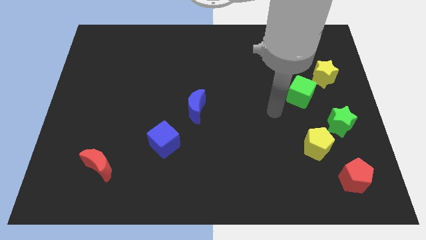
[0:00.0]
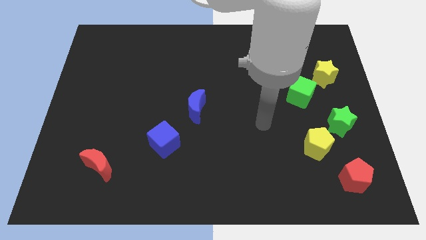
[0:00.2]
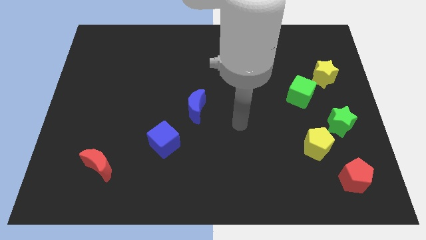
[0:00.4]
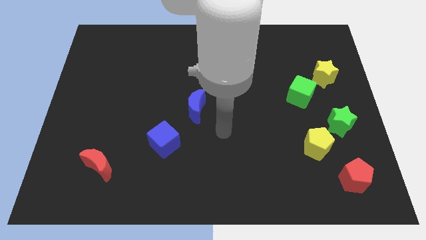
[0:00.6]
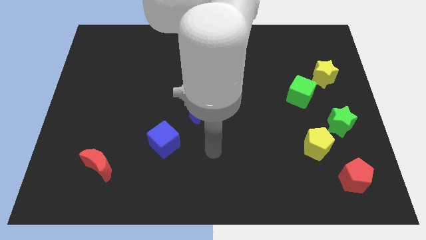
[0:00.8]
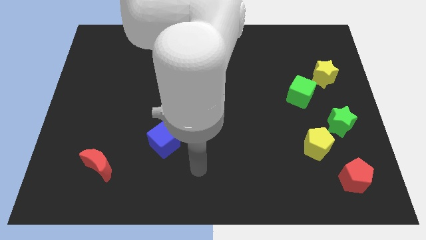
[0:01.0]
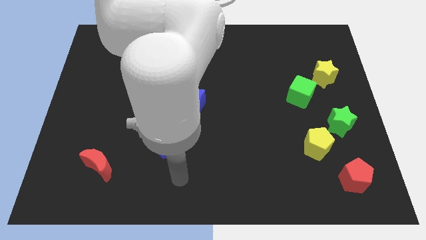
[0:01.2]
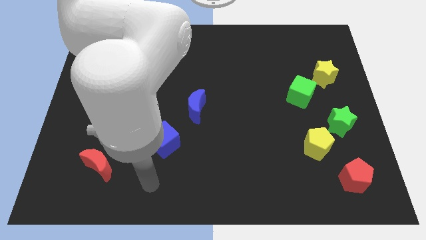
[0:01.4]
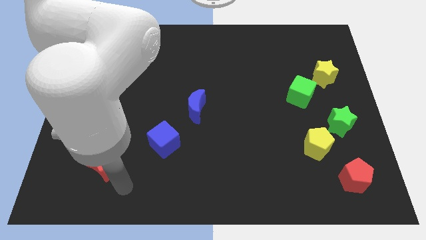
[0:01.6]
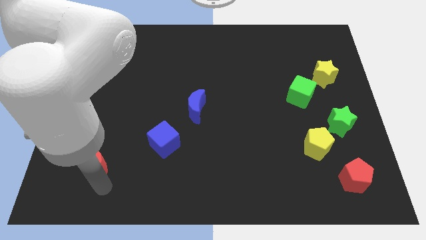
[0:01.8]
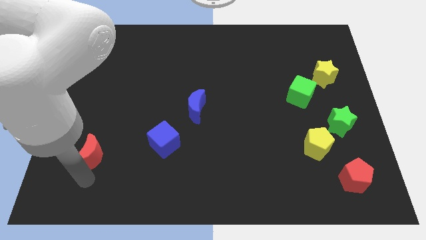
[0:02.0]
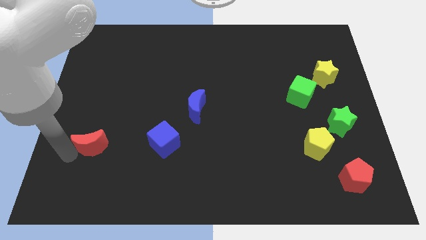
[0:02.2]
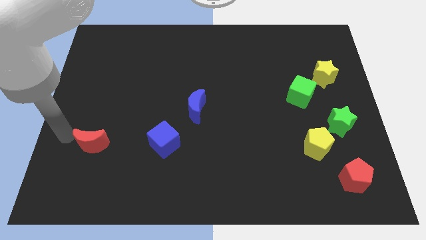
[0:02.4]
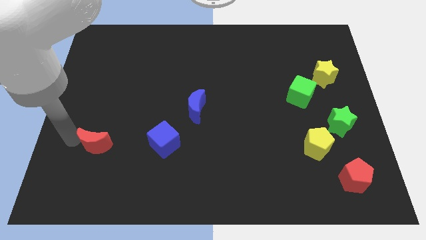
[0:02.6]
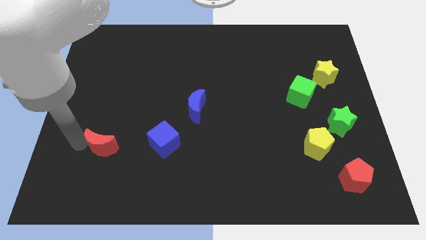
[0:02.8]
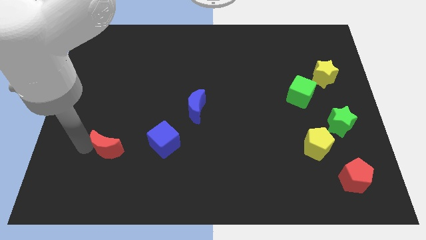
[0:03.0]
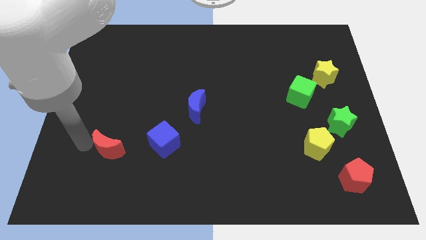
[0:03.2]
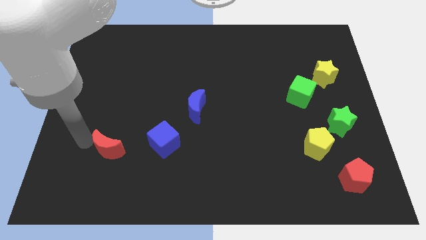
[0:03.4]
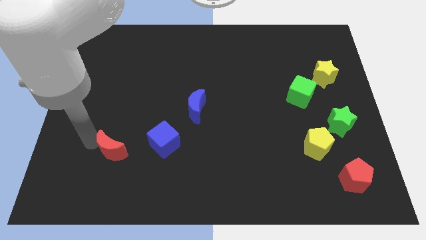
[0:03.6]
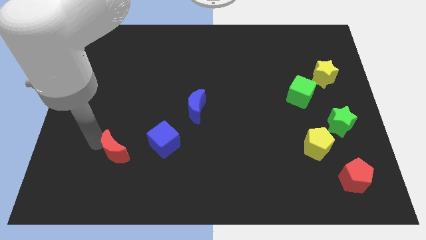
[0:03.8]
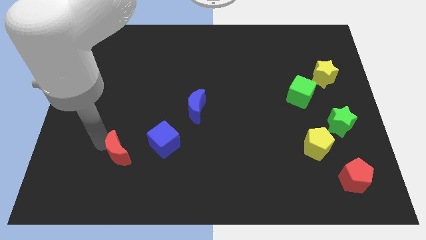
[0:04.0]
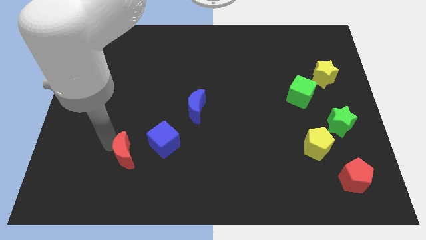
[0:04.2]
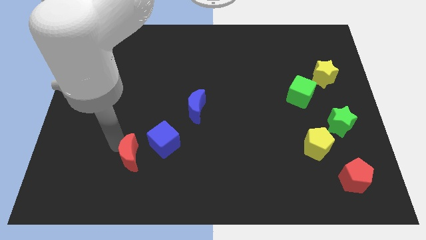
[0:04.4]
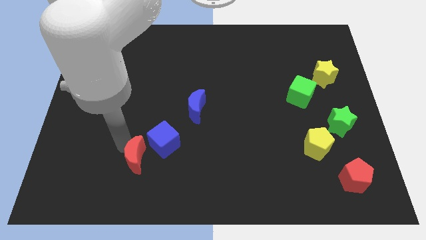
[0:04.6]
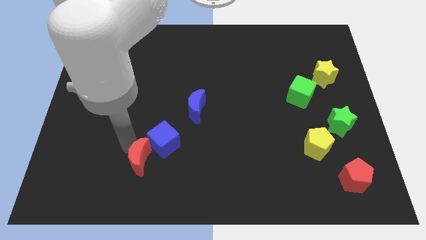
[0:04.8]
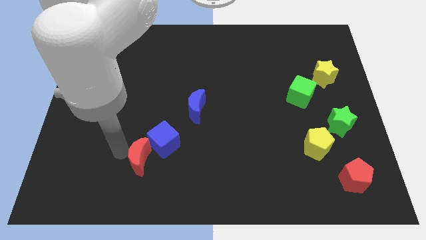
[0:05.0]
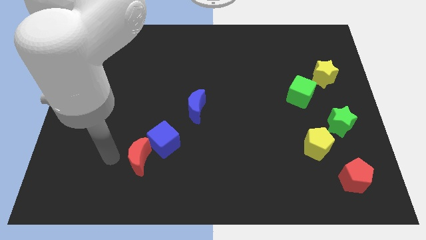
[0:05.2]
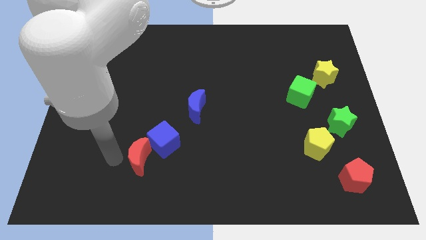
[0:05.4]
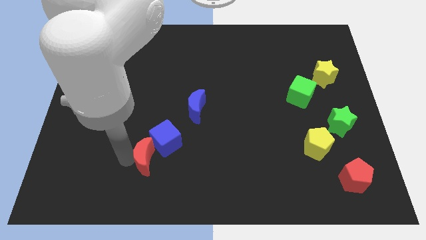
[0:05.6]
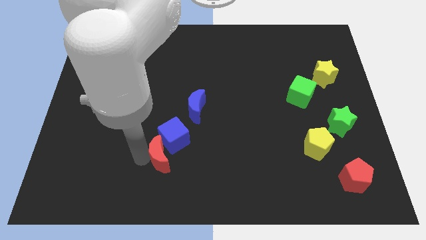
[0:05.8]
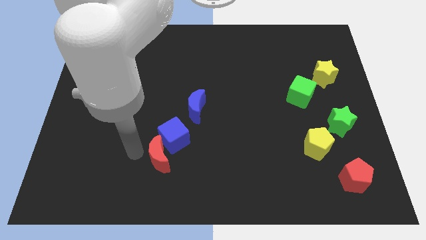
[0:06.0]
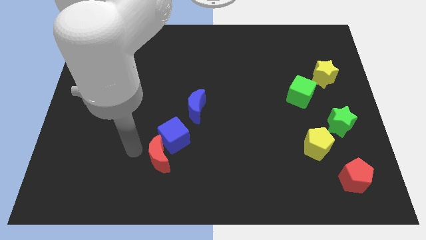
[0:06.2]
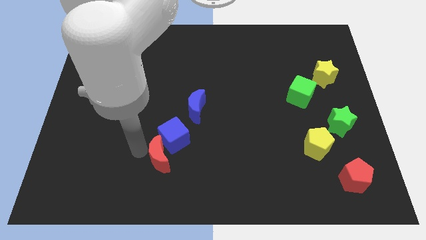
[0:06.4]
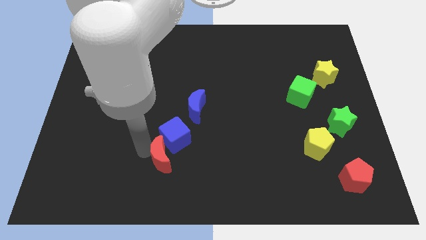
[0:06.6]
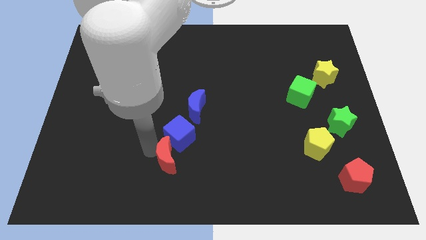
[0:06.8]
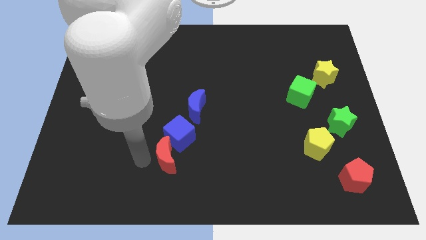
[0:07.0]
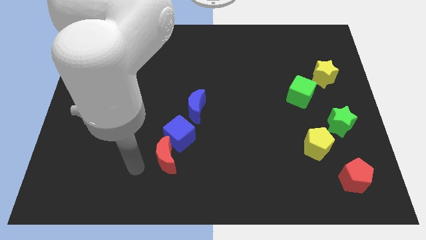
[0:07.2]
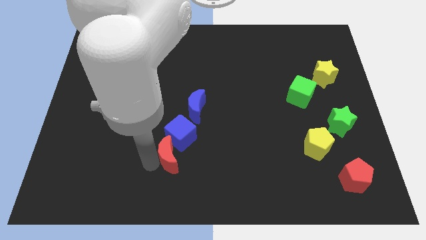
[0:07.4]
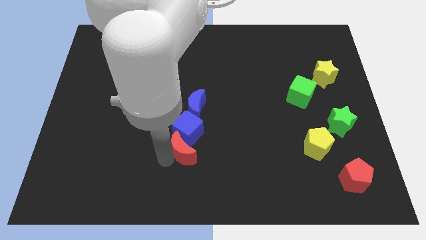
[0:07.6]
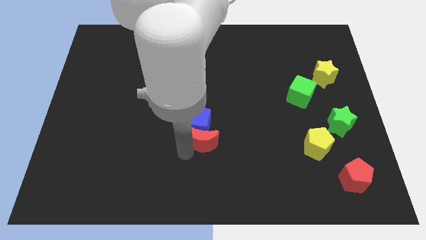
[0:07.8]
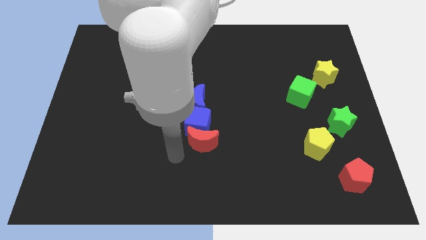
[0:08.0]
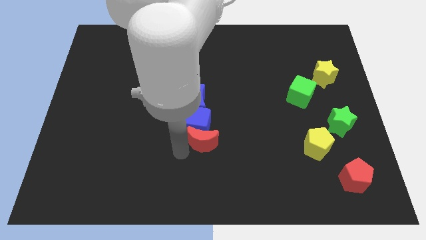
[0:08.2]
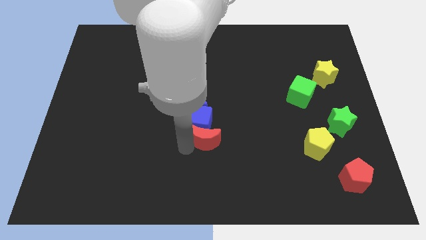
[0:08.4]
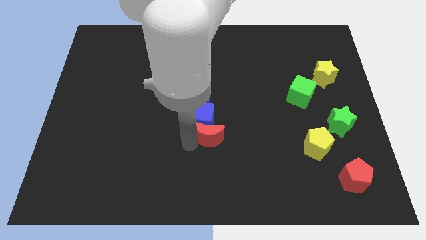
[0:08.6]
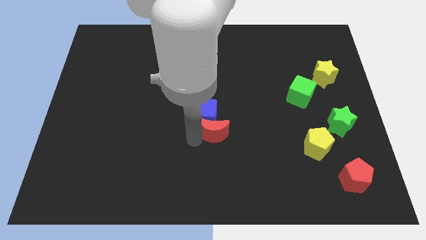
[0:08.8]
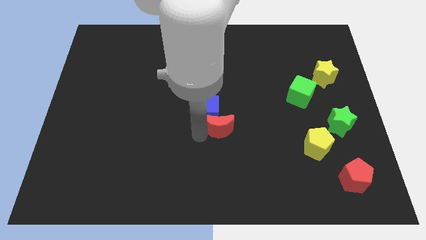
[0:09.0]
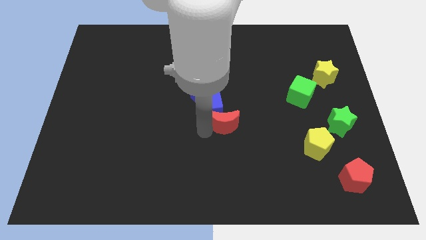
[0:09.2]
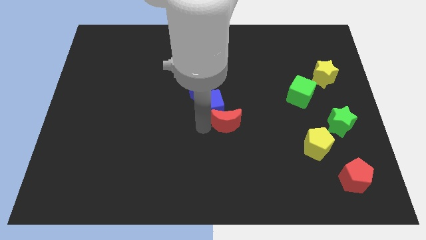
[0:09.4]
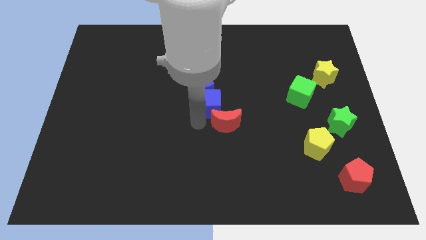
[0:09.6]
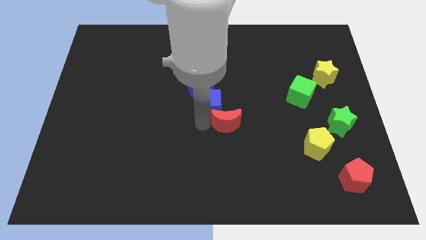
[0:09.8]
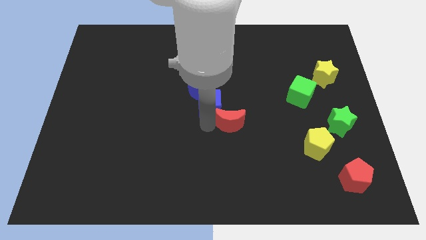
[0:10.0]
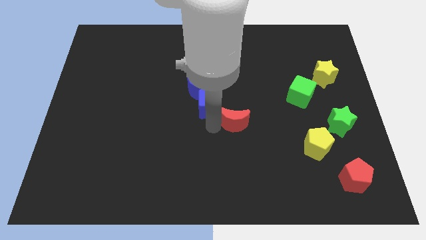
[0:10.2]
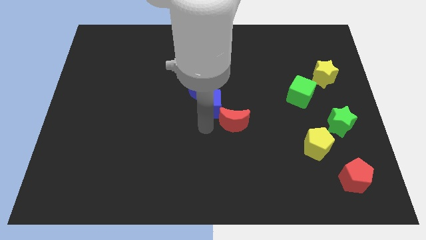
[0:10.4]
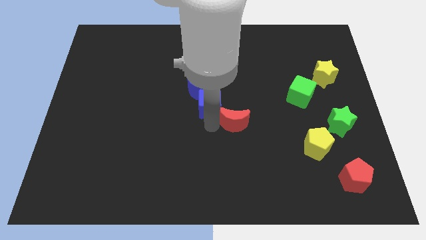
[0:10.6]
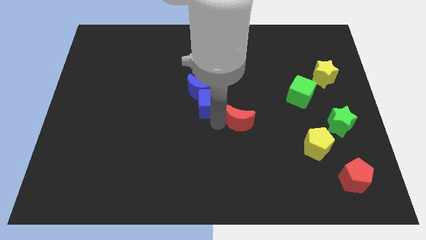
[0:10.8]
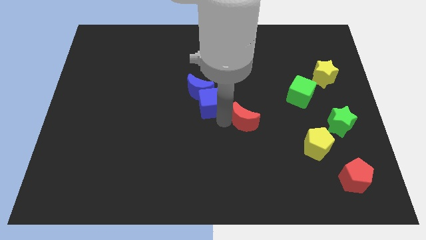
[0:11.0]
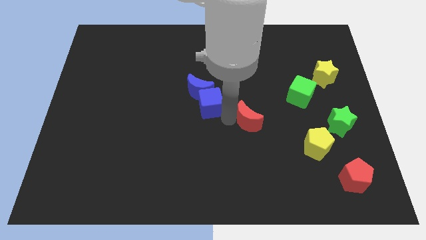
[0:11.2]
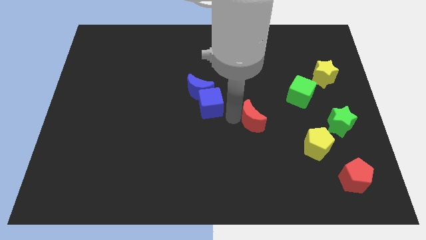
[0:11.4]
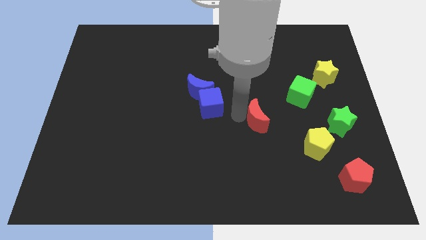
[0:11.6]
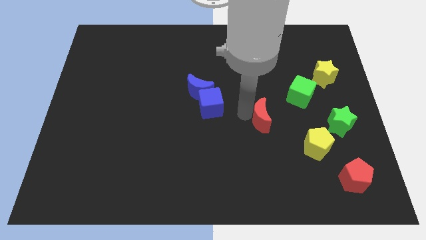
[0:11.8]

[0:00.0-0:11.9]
slide the red moon diagonally down and to the left of the green cube

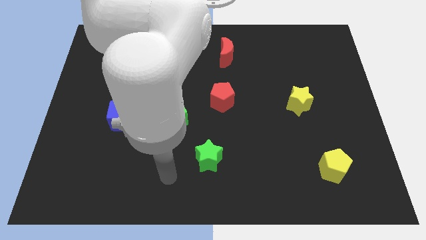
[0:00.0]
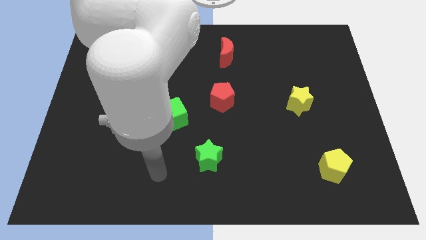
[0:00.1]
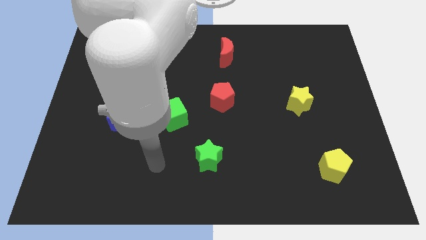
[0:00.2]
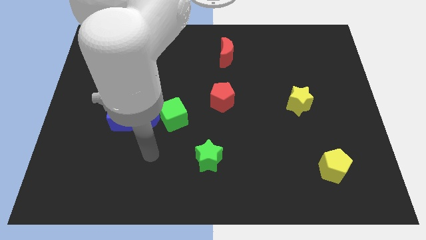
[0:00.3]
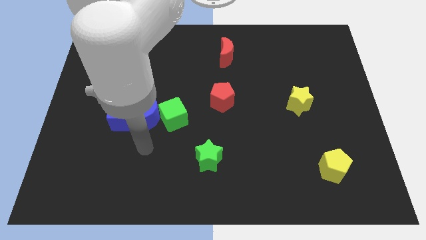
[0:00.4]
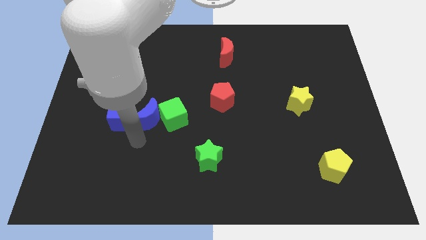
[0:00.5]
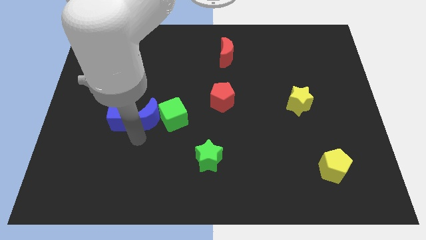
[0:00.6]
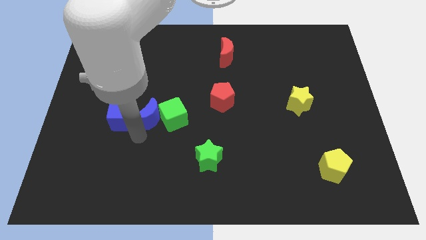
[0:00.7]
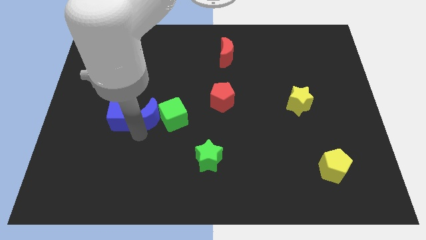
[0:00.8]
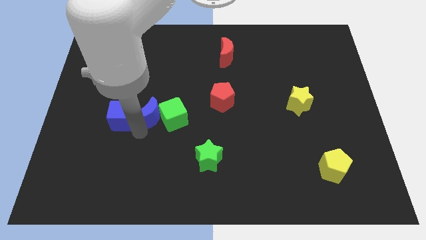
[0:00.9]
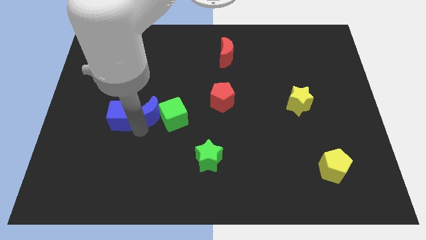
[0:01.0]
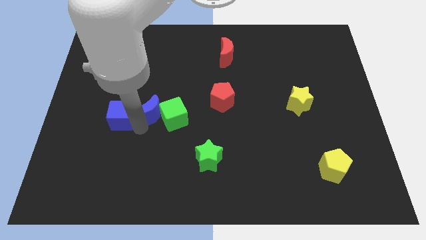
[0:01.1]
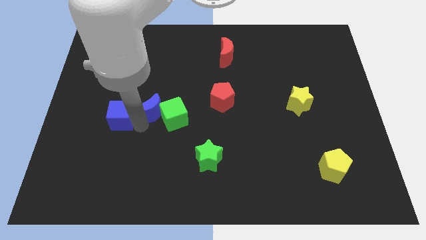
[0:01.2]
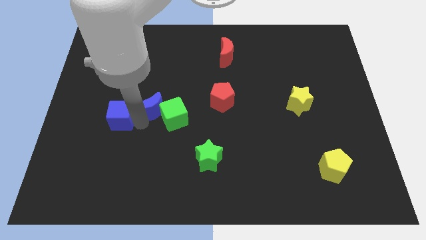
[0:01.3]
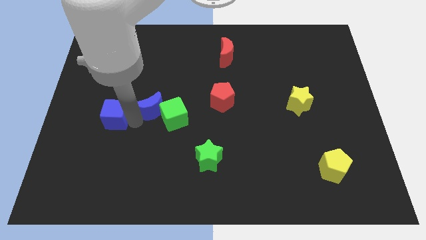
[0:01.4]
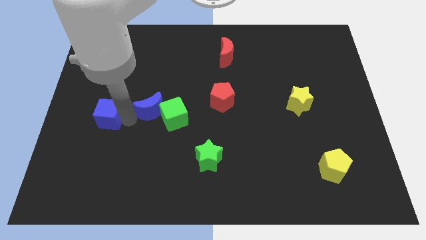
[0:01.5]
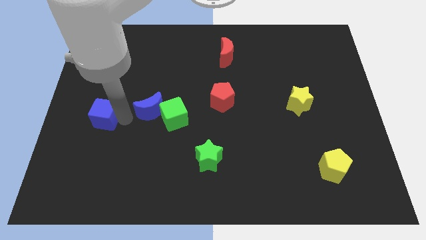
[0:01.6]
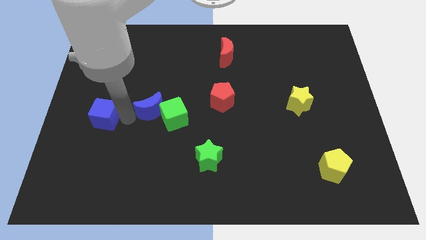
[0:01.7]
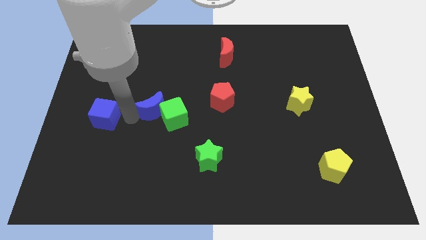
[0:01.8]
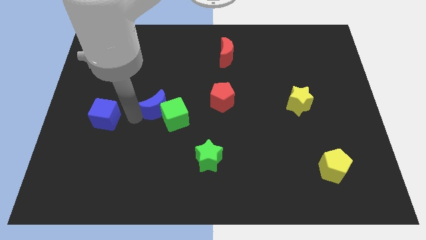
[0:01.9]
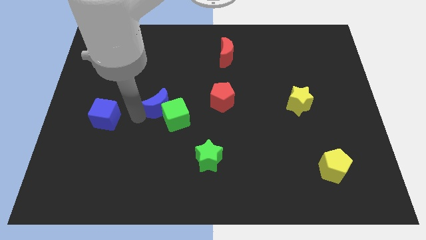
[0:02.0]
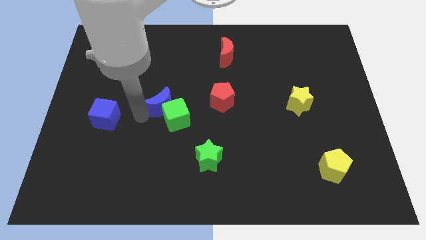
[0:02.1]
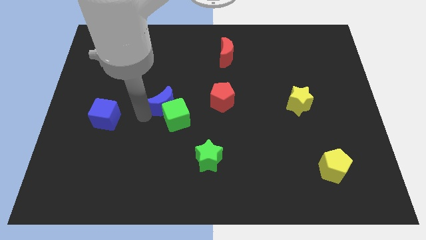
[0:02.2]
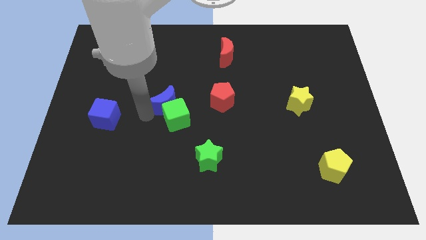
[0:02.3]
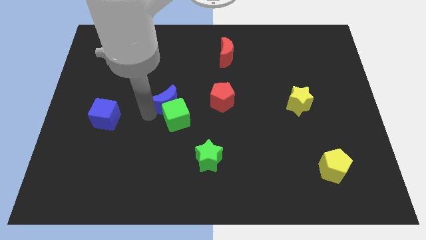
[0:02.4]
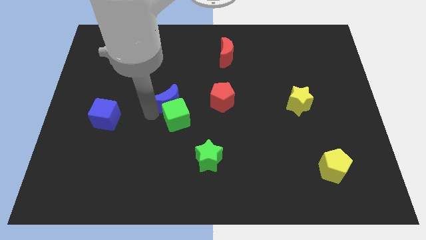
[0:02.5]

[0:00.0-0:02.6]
slide the blue moon to the top right side of the green cube
